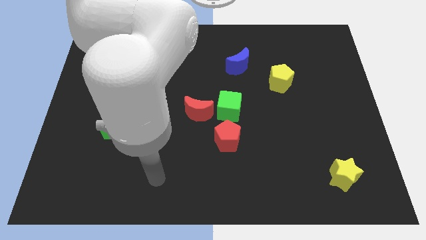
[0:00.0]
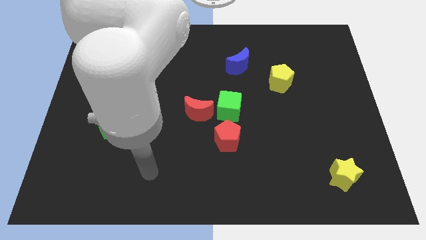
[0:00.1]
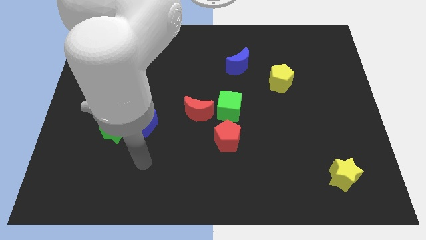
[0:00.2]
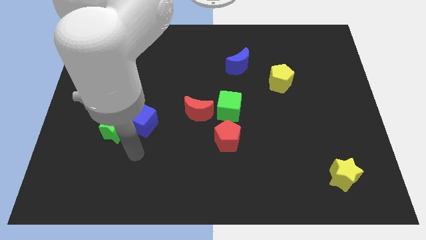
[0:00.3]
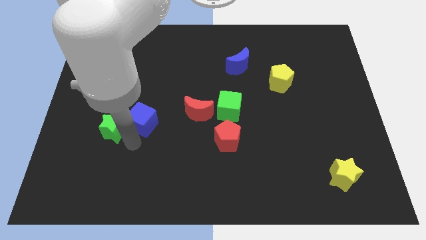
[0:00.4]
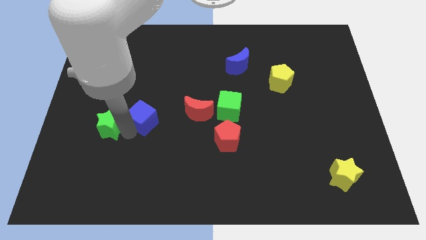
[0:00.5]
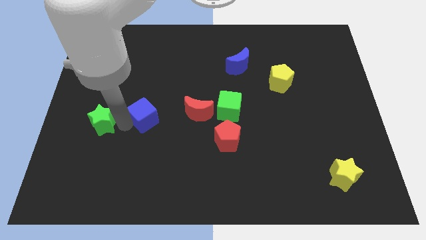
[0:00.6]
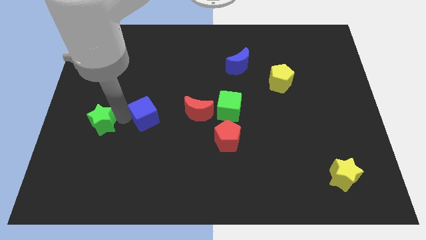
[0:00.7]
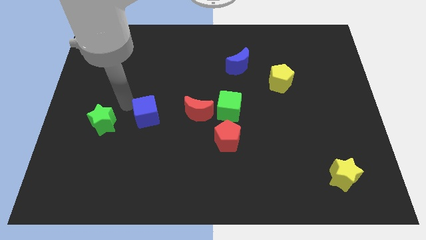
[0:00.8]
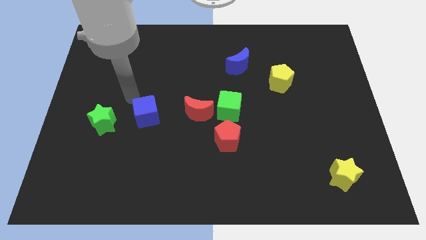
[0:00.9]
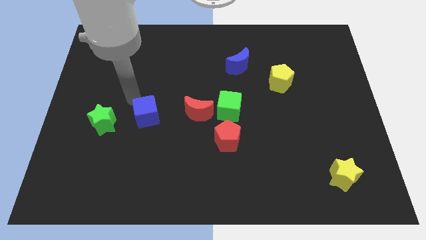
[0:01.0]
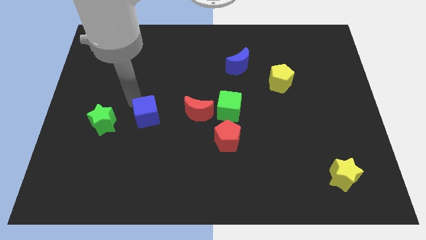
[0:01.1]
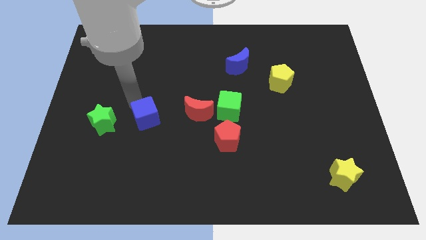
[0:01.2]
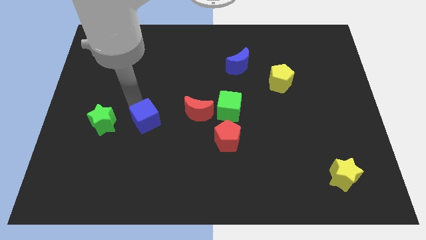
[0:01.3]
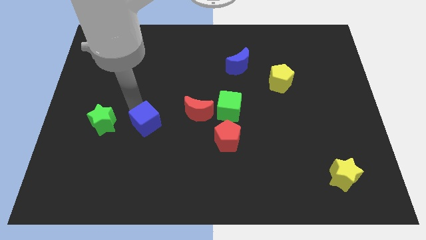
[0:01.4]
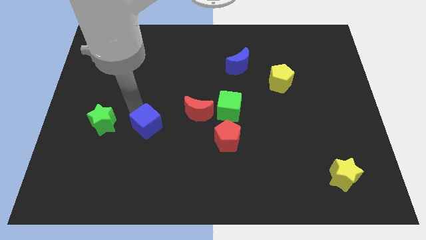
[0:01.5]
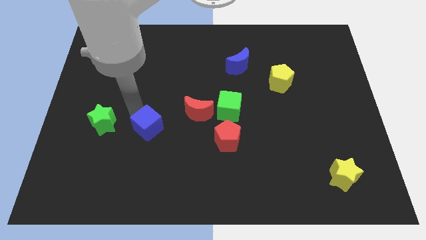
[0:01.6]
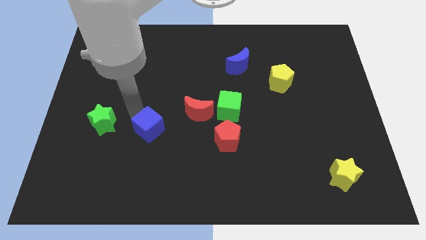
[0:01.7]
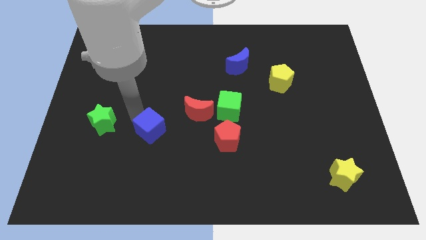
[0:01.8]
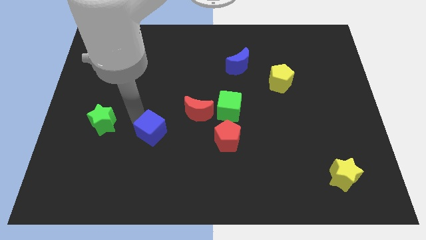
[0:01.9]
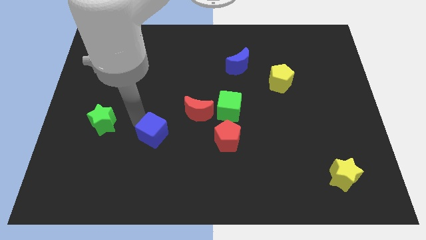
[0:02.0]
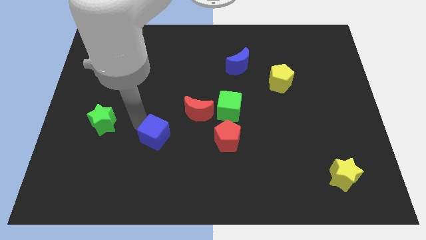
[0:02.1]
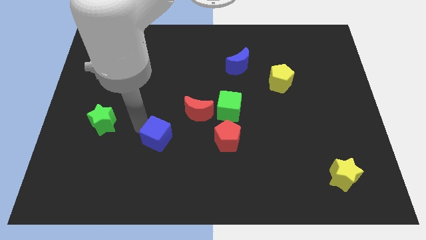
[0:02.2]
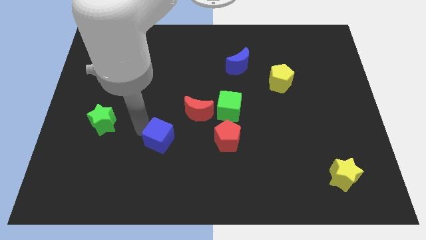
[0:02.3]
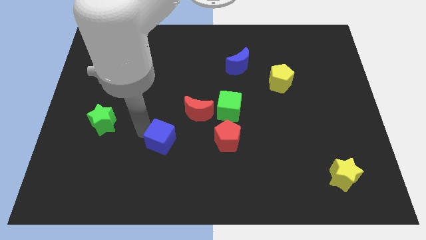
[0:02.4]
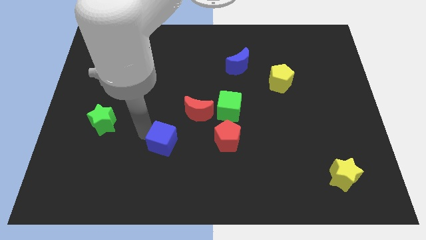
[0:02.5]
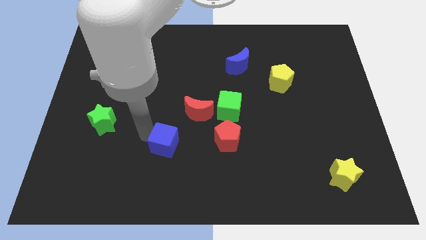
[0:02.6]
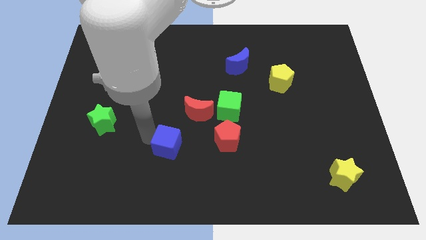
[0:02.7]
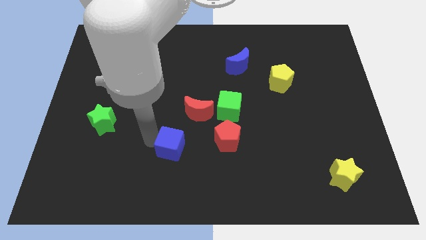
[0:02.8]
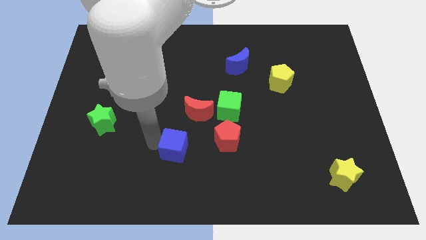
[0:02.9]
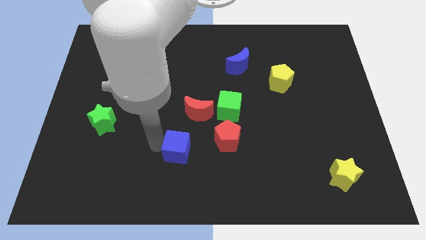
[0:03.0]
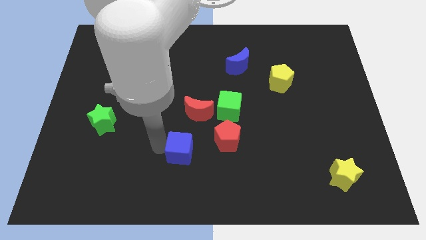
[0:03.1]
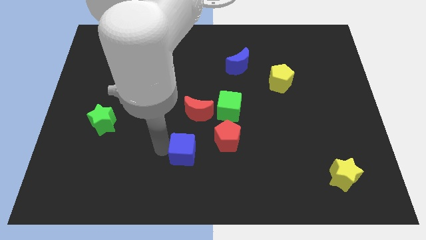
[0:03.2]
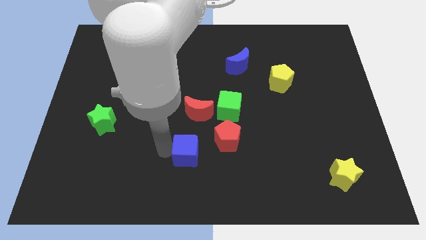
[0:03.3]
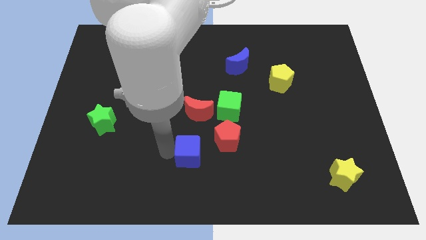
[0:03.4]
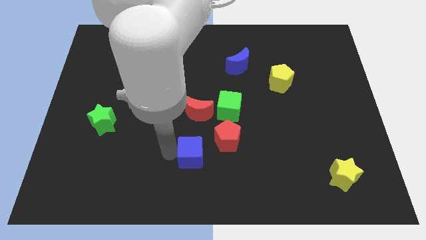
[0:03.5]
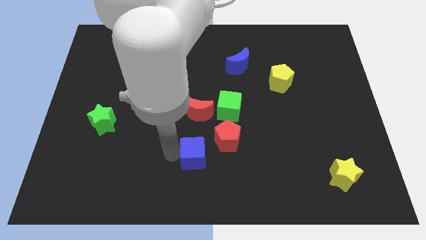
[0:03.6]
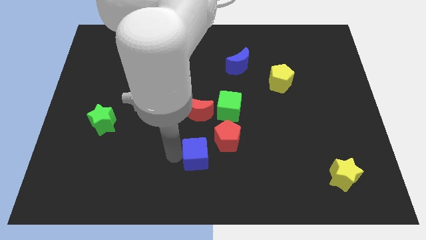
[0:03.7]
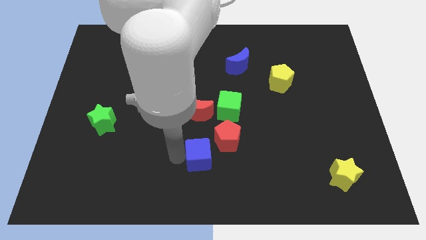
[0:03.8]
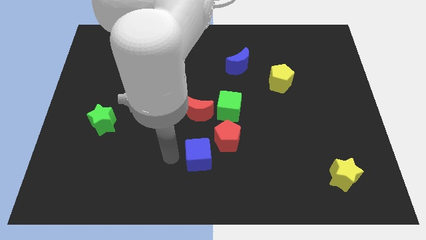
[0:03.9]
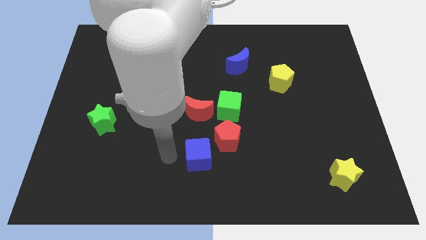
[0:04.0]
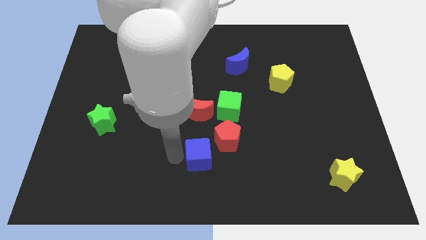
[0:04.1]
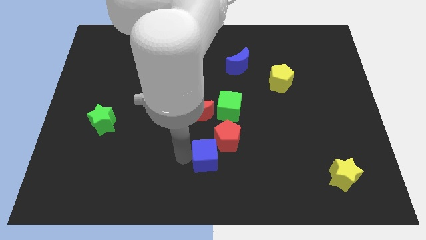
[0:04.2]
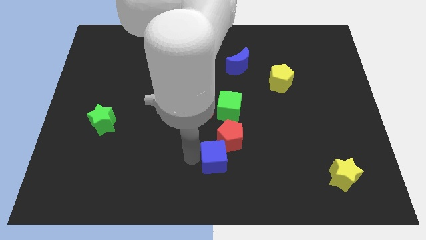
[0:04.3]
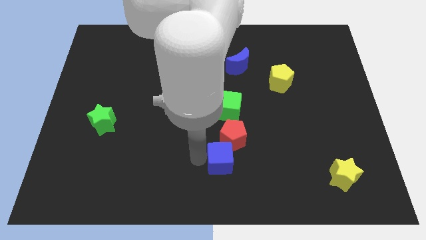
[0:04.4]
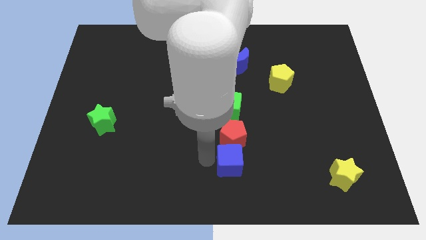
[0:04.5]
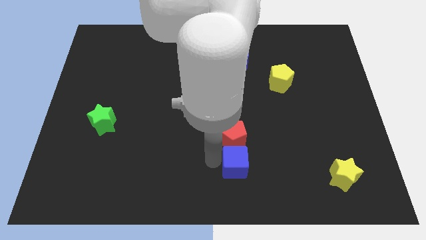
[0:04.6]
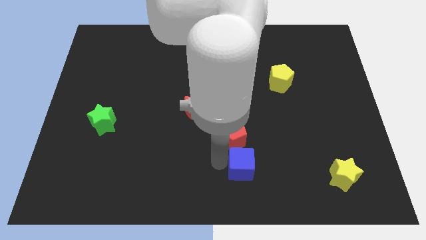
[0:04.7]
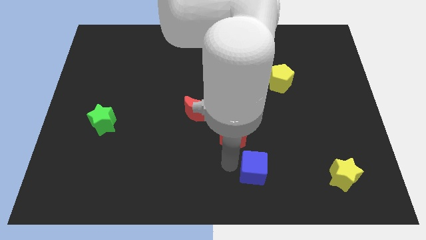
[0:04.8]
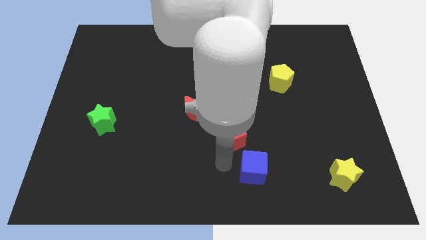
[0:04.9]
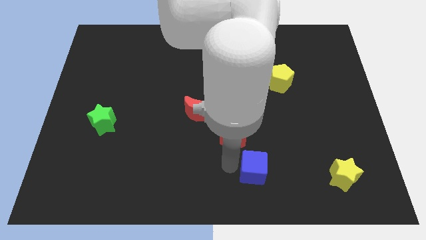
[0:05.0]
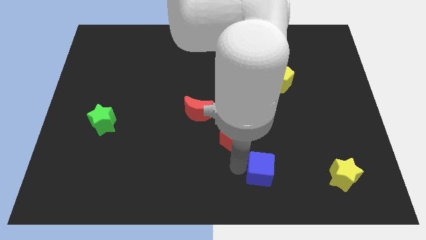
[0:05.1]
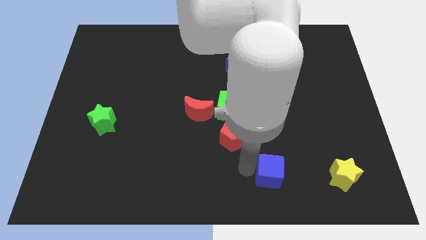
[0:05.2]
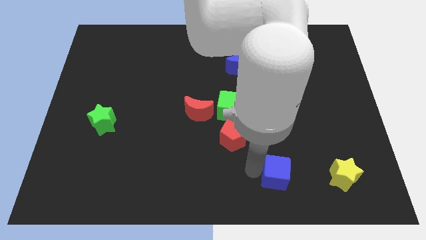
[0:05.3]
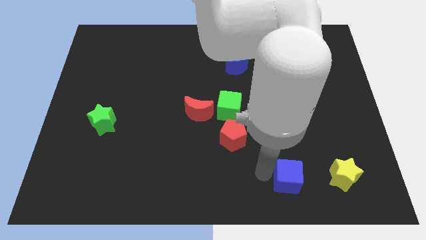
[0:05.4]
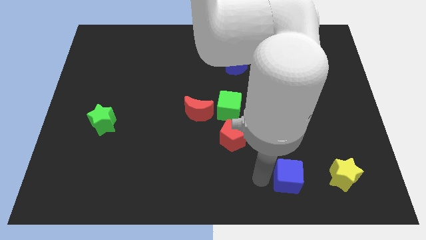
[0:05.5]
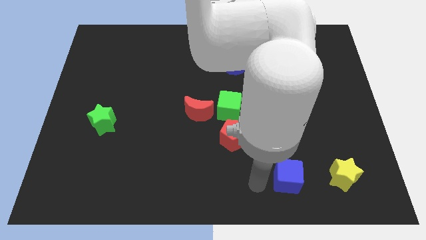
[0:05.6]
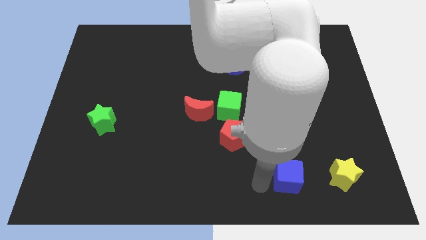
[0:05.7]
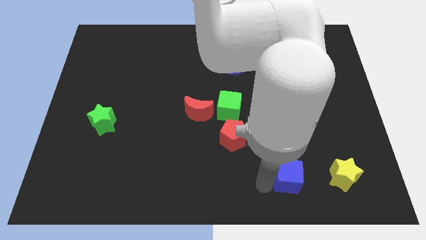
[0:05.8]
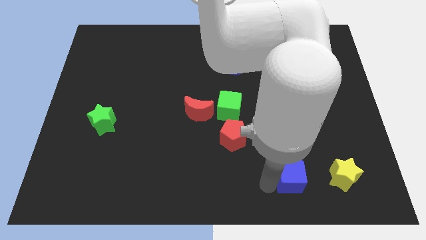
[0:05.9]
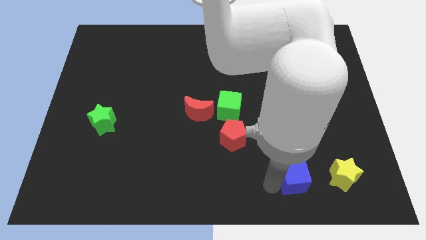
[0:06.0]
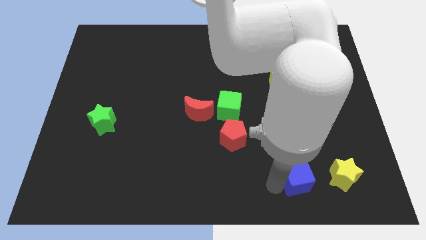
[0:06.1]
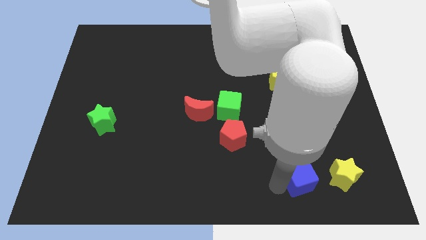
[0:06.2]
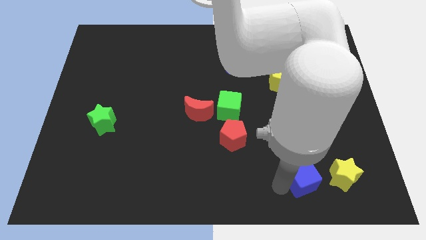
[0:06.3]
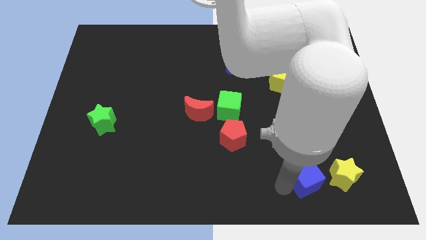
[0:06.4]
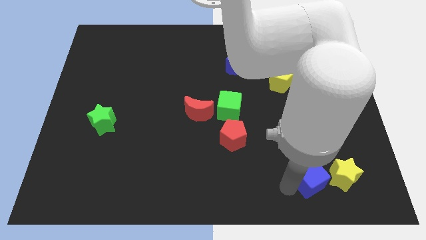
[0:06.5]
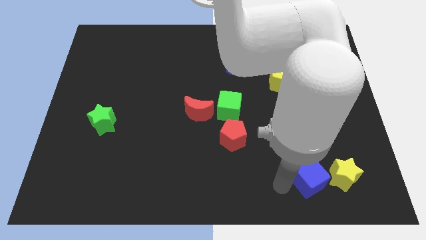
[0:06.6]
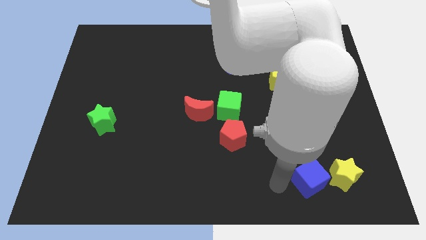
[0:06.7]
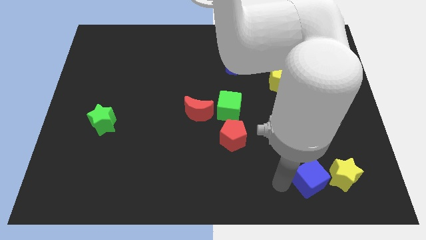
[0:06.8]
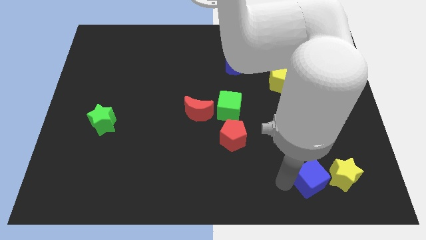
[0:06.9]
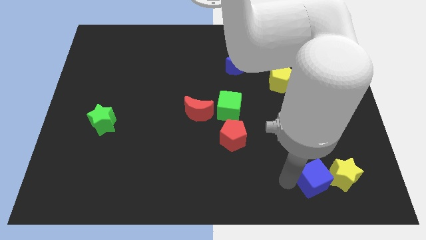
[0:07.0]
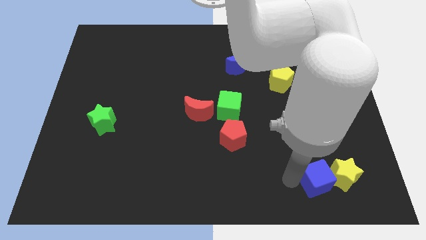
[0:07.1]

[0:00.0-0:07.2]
move the blue cube towards the yellow star

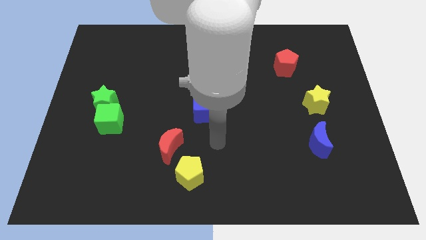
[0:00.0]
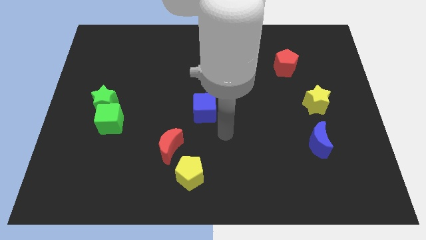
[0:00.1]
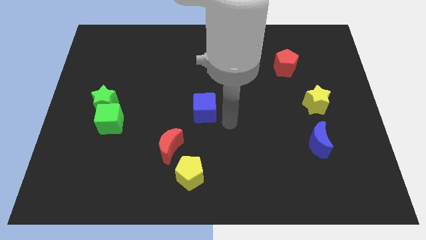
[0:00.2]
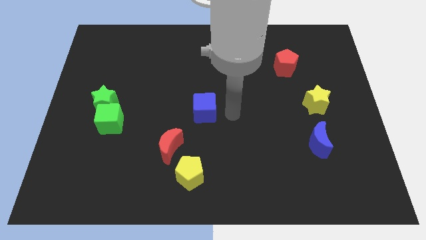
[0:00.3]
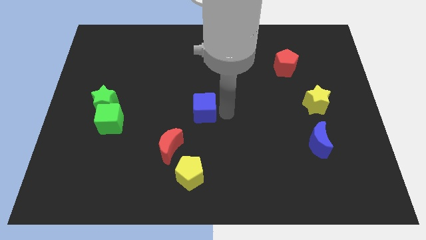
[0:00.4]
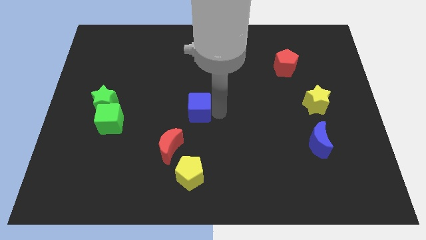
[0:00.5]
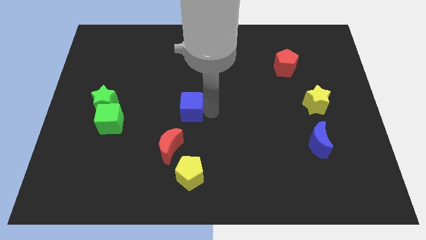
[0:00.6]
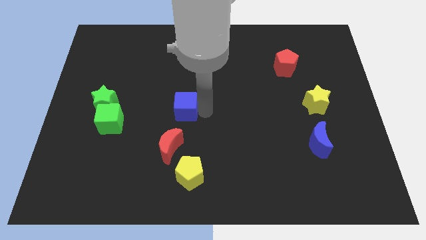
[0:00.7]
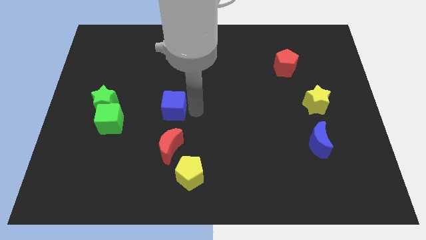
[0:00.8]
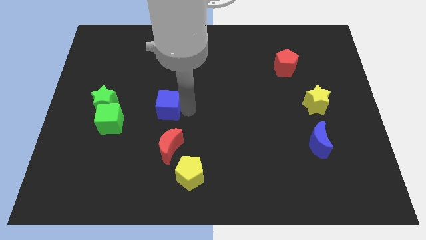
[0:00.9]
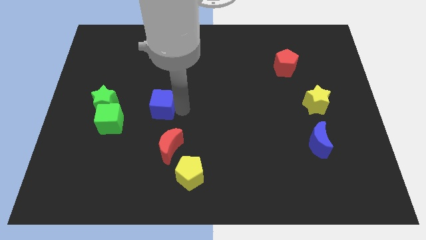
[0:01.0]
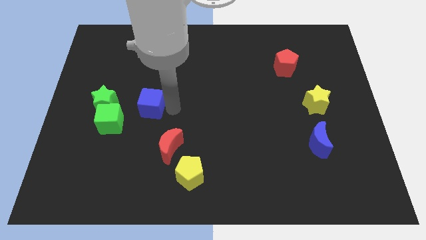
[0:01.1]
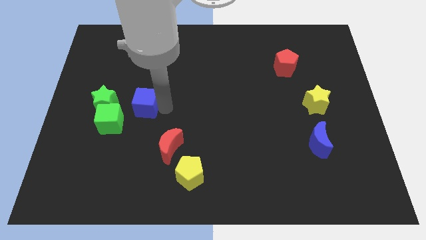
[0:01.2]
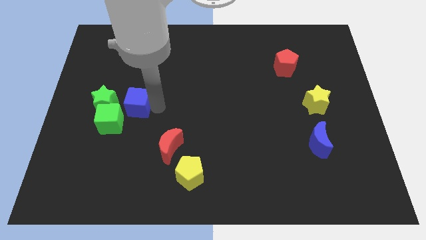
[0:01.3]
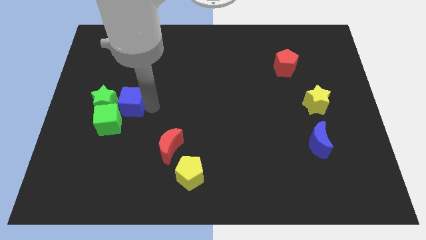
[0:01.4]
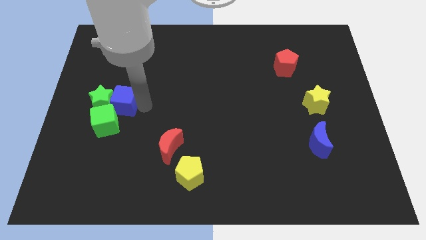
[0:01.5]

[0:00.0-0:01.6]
move the blue cube close to the green star
